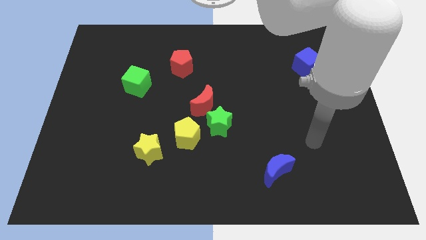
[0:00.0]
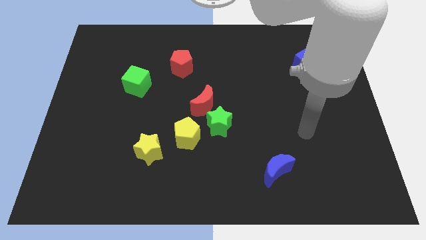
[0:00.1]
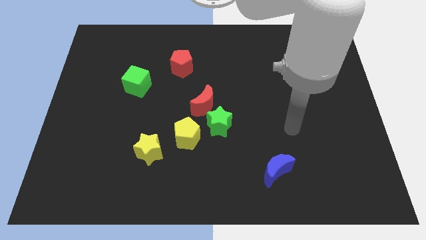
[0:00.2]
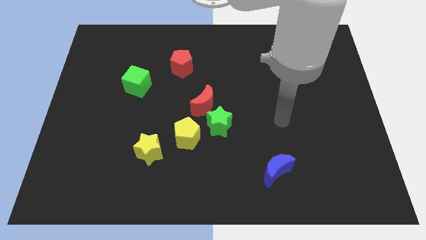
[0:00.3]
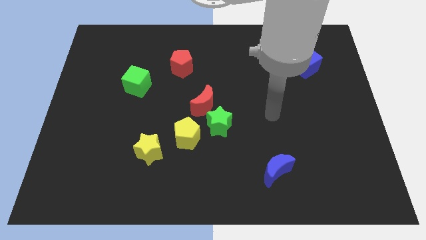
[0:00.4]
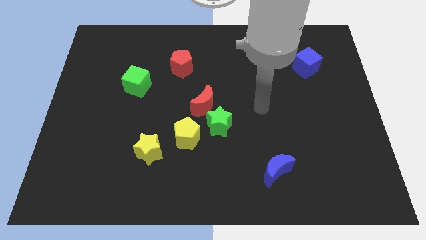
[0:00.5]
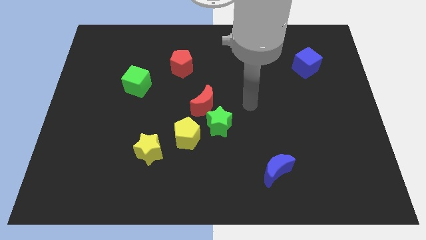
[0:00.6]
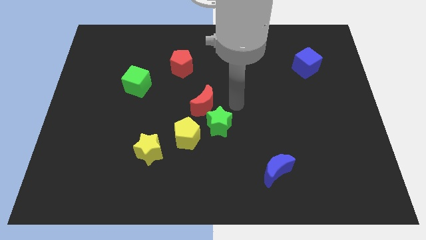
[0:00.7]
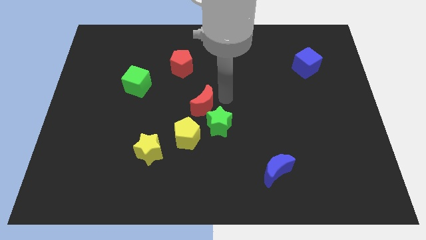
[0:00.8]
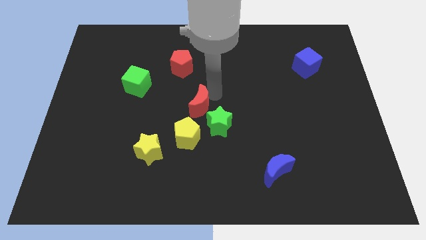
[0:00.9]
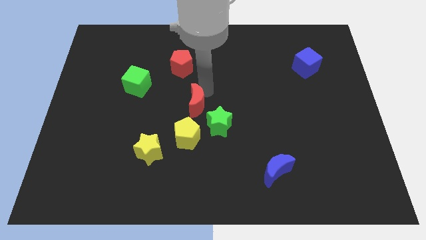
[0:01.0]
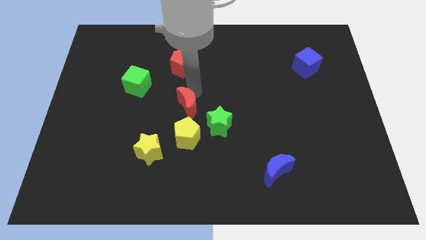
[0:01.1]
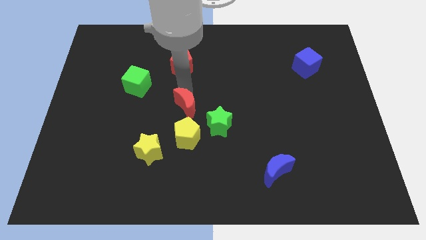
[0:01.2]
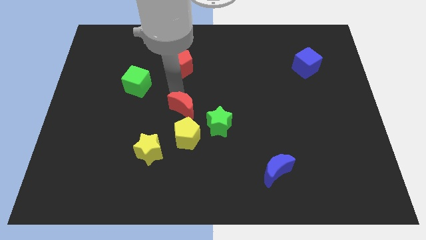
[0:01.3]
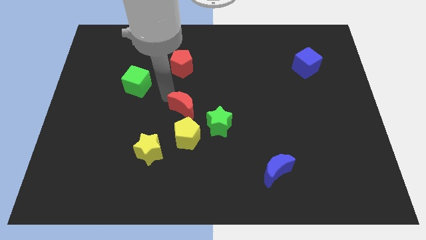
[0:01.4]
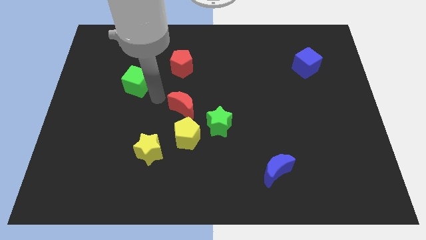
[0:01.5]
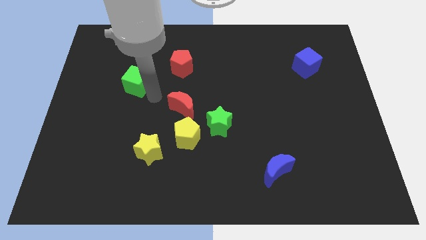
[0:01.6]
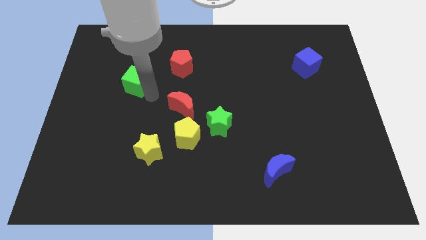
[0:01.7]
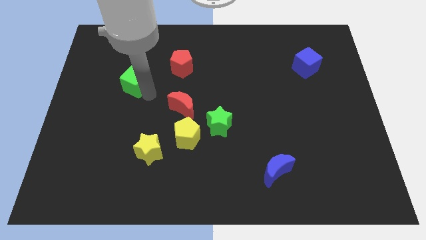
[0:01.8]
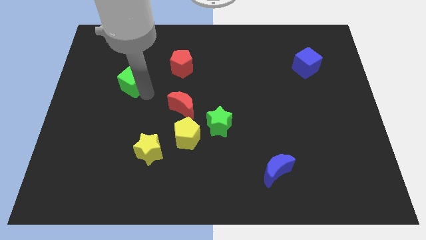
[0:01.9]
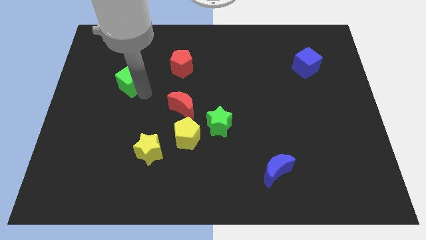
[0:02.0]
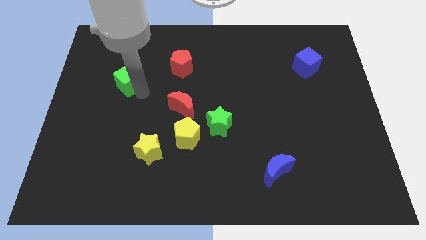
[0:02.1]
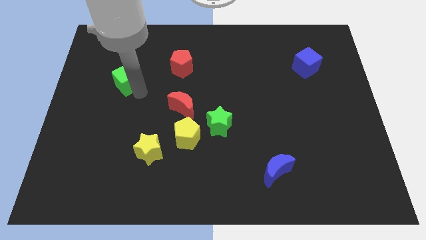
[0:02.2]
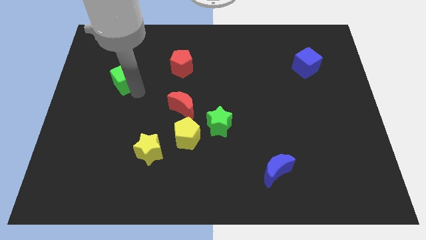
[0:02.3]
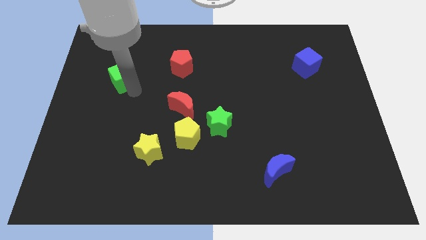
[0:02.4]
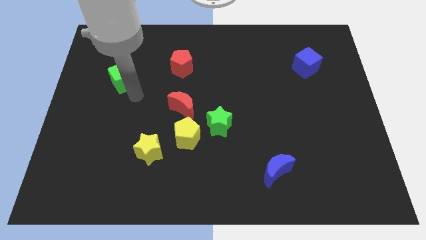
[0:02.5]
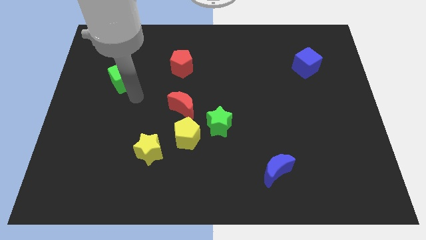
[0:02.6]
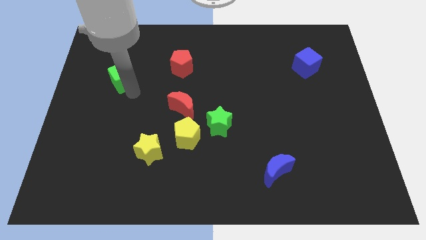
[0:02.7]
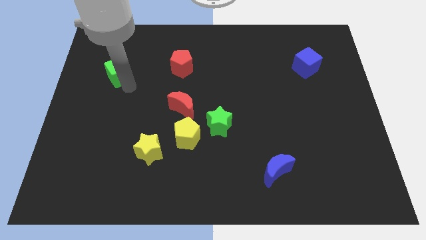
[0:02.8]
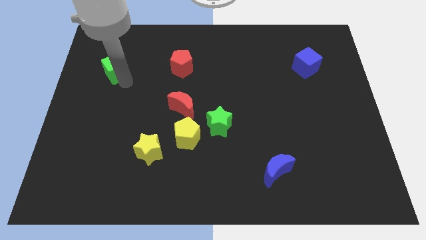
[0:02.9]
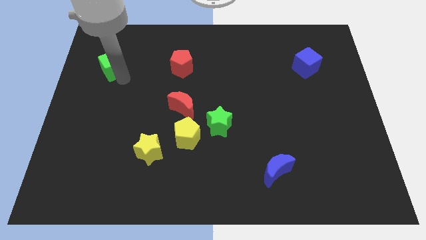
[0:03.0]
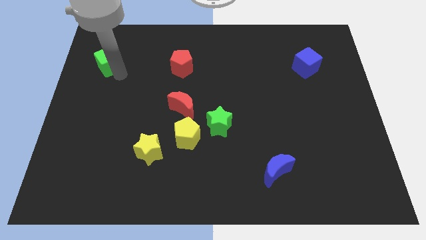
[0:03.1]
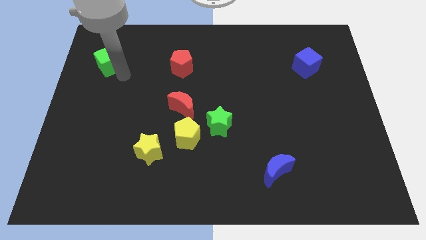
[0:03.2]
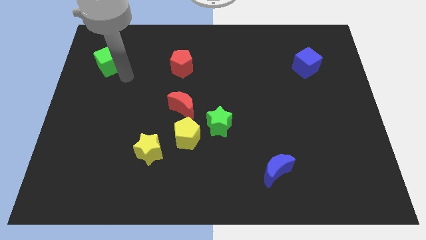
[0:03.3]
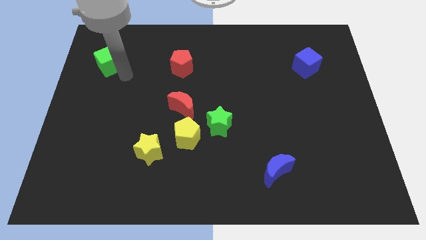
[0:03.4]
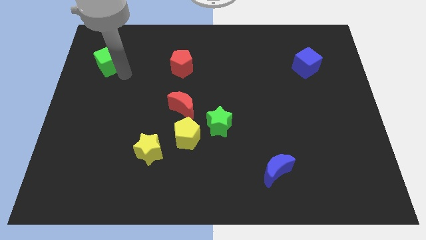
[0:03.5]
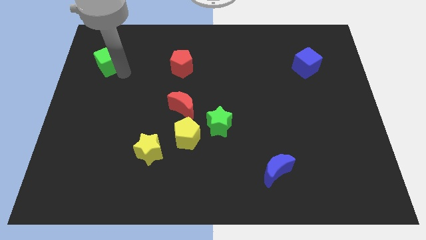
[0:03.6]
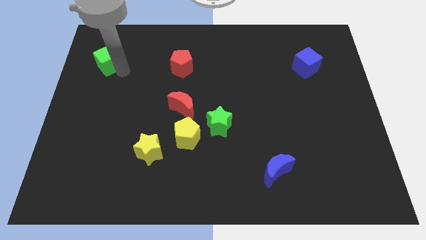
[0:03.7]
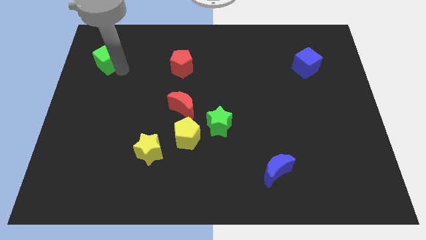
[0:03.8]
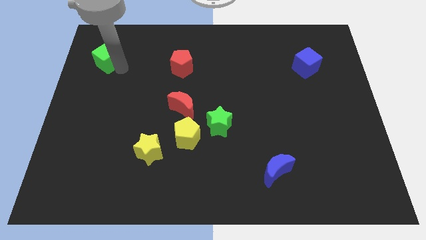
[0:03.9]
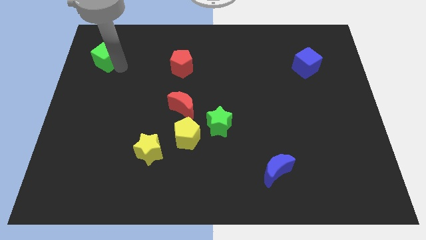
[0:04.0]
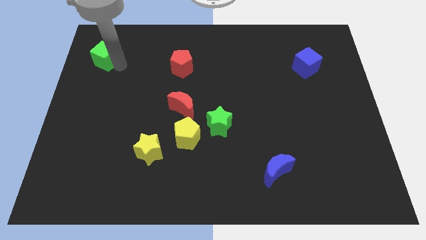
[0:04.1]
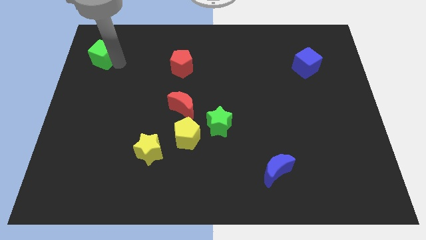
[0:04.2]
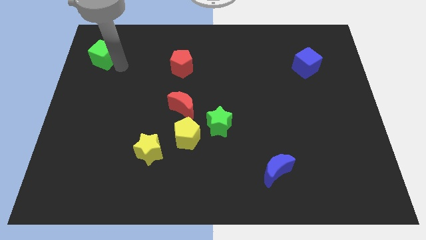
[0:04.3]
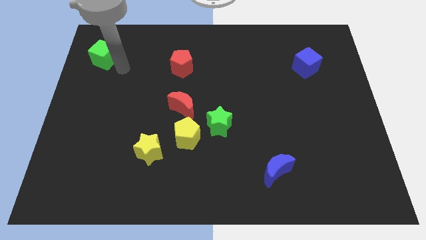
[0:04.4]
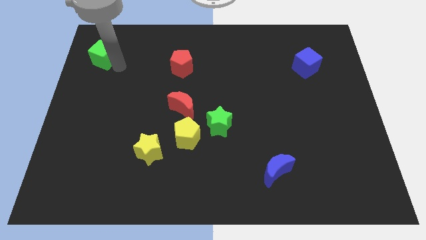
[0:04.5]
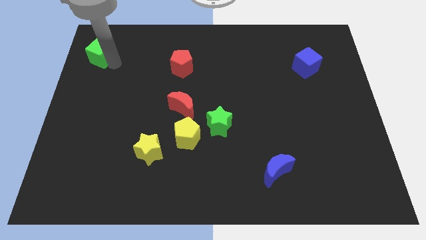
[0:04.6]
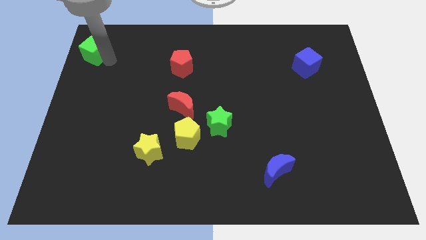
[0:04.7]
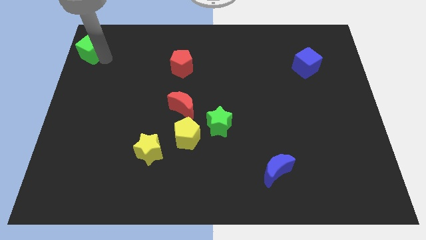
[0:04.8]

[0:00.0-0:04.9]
slide the green cube to the top left of the board

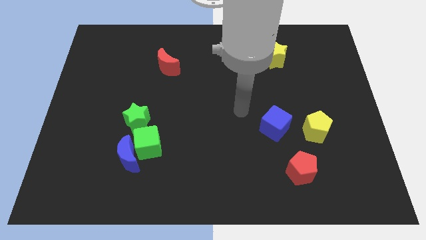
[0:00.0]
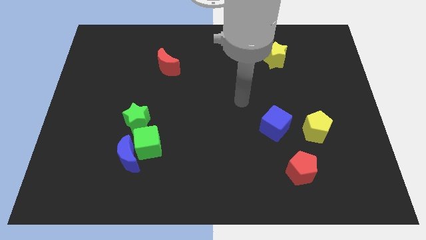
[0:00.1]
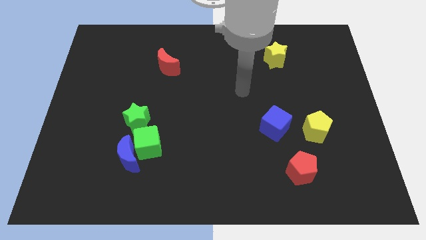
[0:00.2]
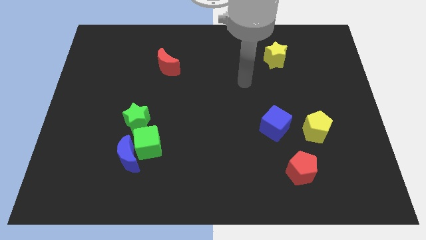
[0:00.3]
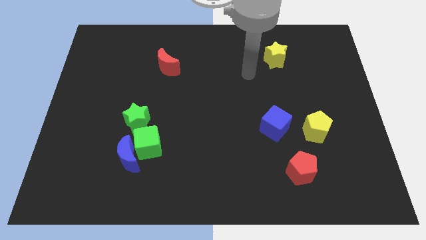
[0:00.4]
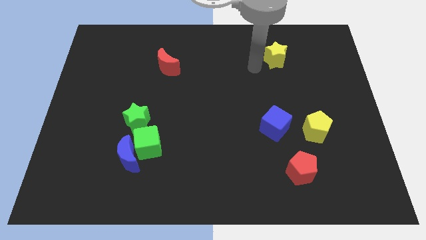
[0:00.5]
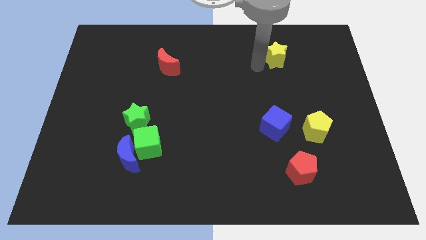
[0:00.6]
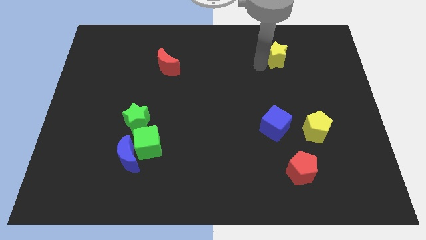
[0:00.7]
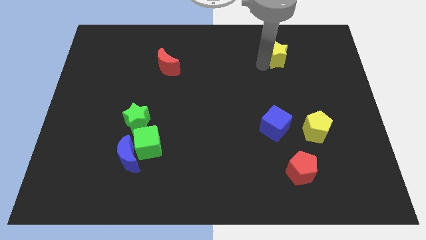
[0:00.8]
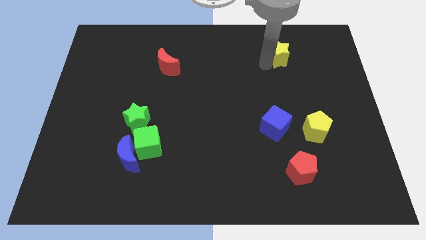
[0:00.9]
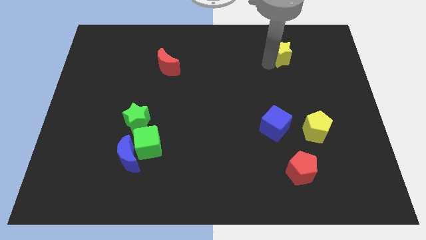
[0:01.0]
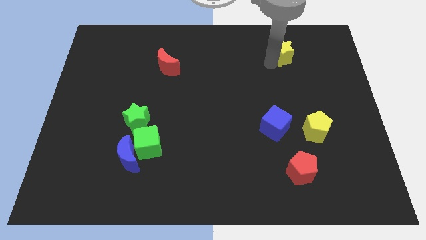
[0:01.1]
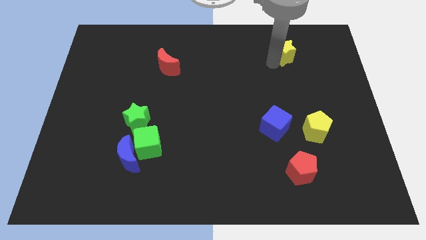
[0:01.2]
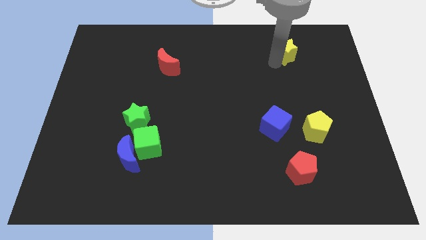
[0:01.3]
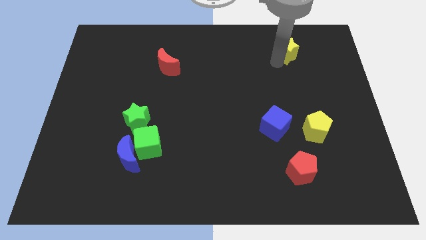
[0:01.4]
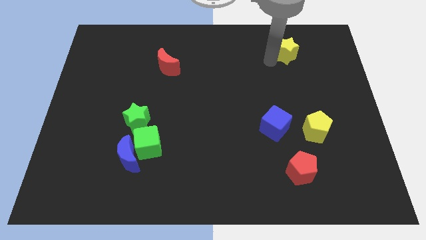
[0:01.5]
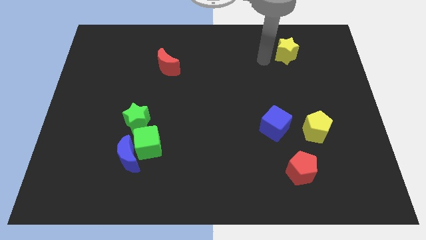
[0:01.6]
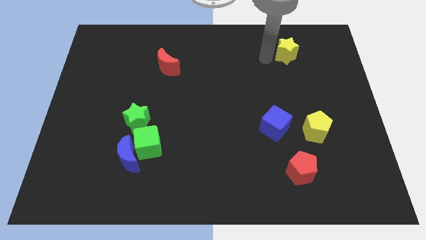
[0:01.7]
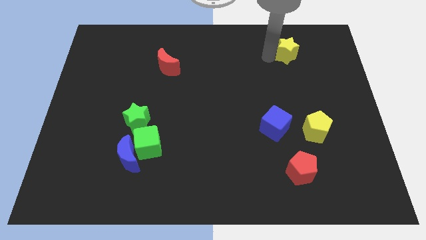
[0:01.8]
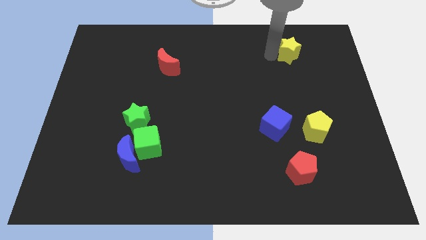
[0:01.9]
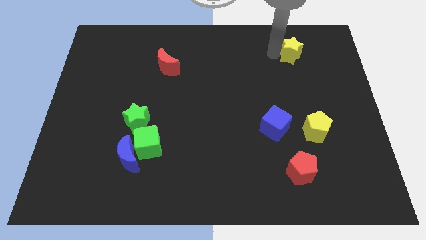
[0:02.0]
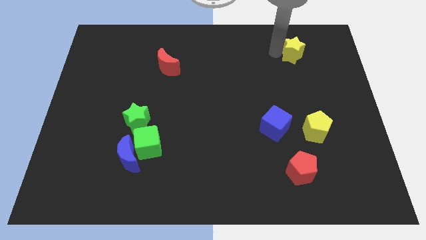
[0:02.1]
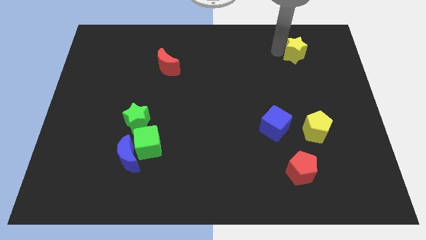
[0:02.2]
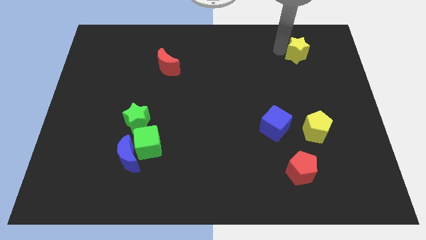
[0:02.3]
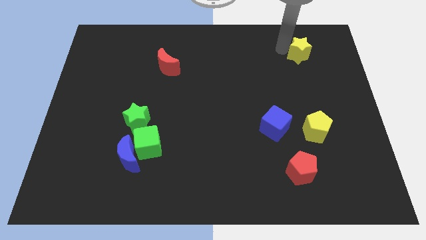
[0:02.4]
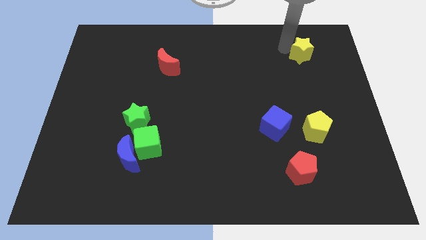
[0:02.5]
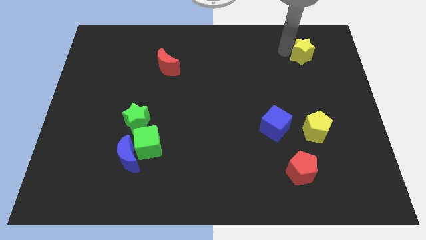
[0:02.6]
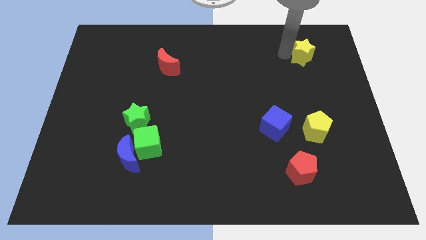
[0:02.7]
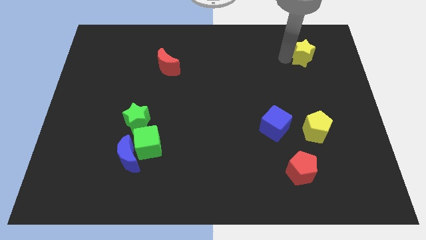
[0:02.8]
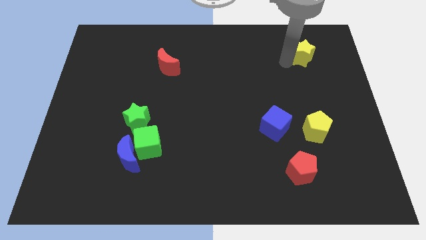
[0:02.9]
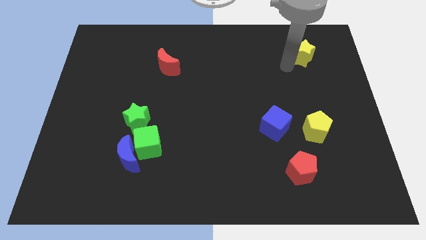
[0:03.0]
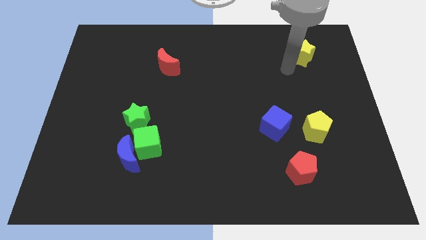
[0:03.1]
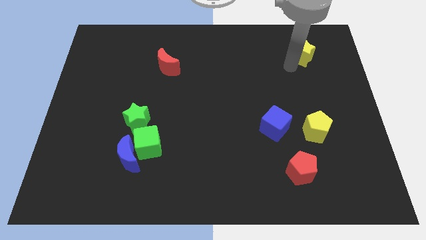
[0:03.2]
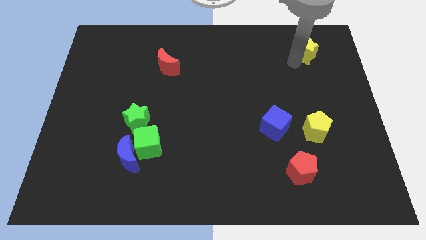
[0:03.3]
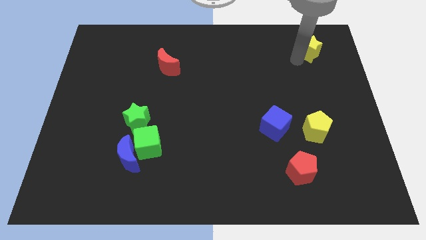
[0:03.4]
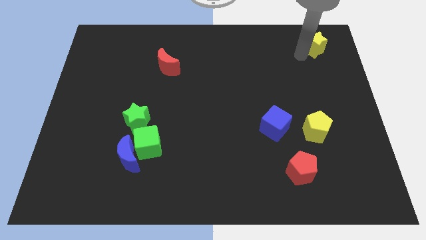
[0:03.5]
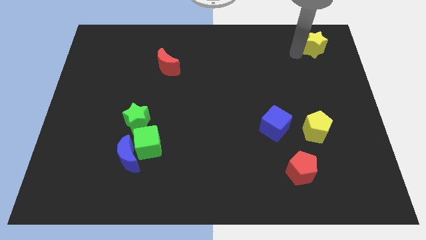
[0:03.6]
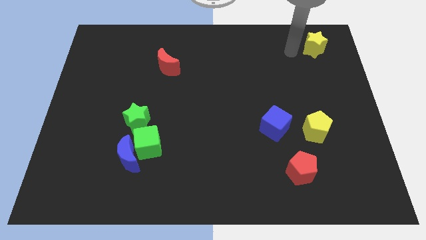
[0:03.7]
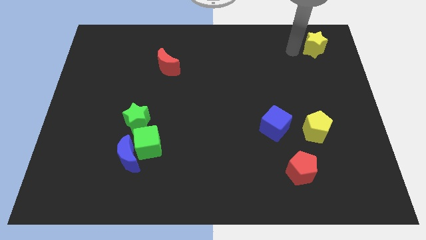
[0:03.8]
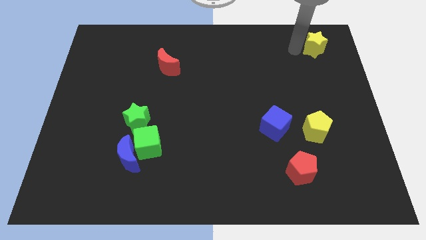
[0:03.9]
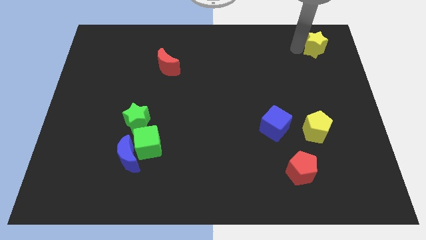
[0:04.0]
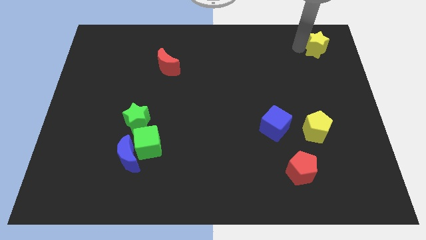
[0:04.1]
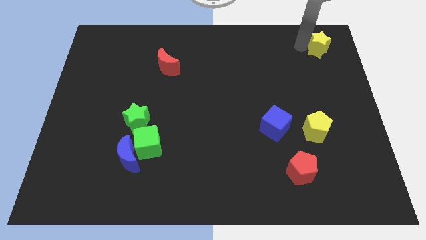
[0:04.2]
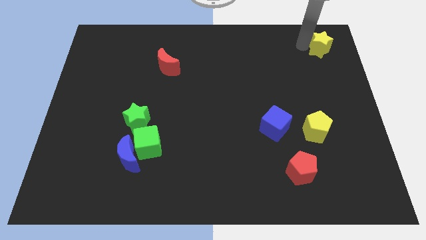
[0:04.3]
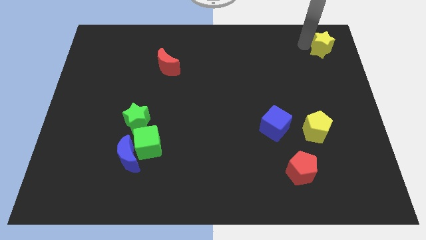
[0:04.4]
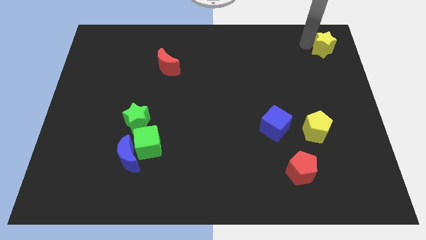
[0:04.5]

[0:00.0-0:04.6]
slide the yellow star to the upper right corner
